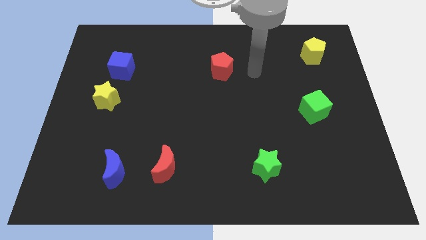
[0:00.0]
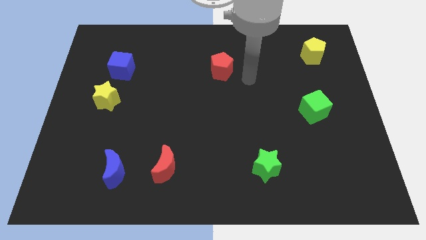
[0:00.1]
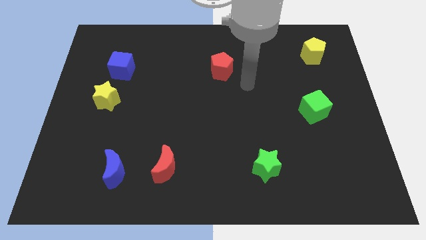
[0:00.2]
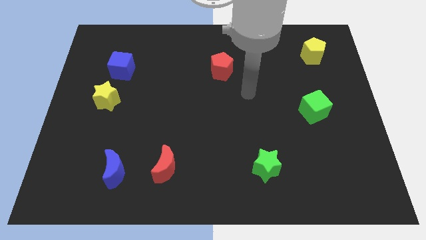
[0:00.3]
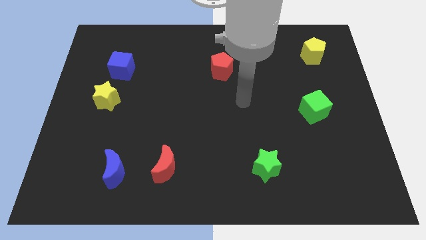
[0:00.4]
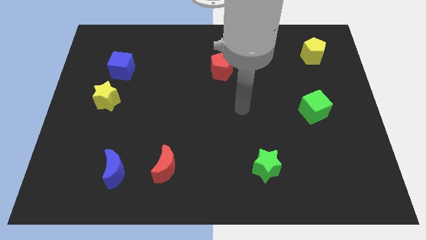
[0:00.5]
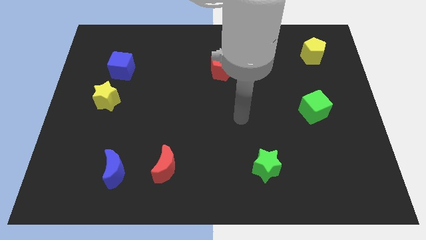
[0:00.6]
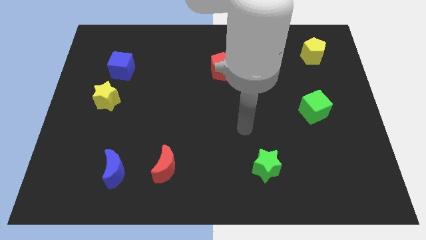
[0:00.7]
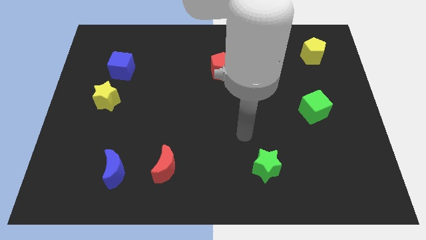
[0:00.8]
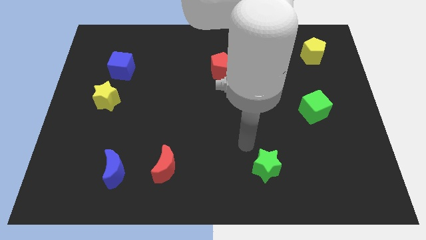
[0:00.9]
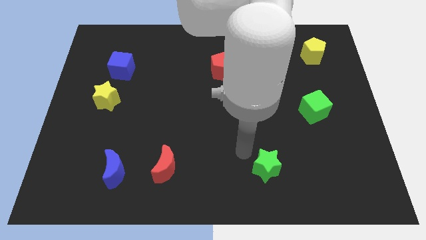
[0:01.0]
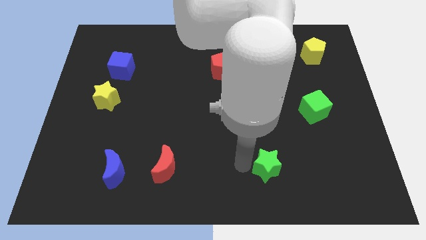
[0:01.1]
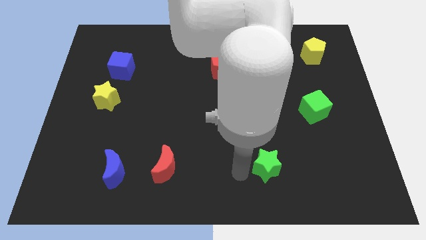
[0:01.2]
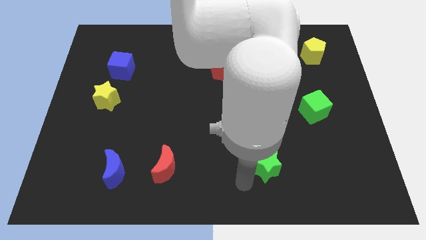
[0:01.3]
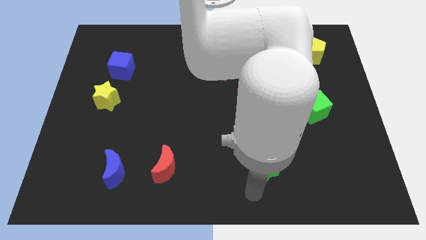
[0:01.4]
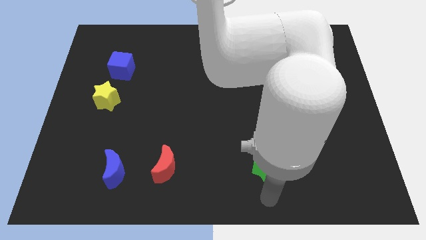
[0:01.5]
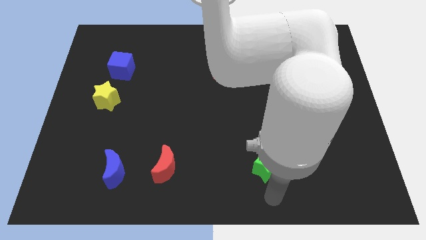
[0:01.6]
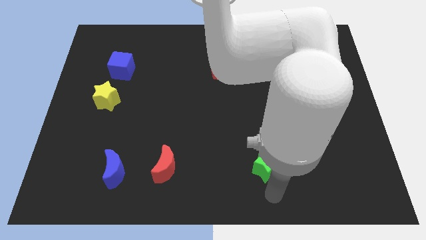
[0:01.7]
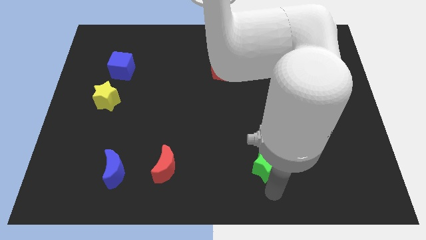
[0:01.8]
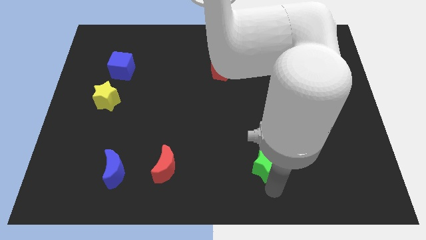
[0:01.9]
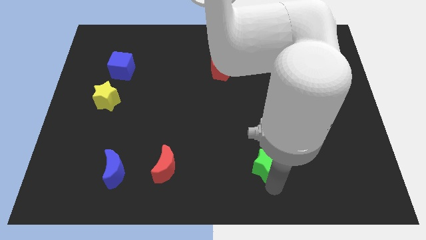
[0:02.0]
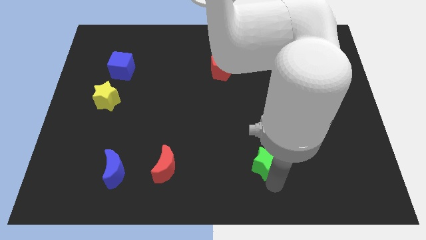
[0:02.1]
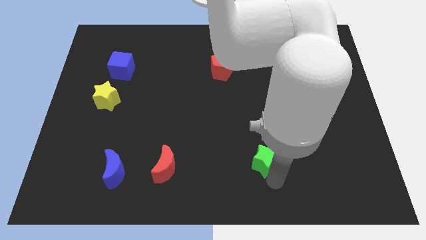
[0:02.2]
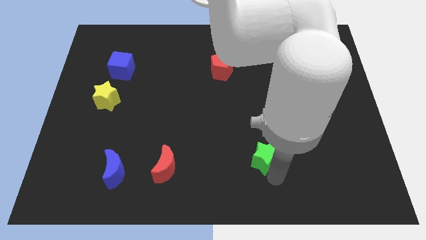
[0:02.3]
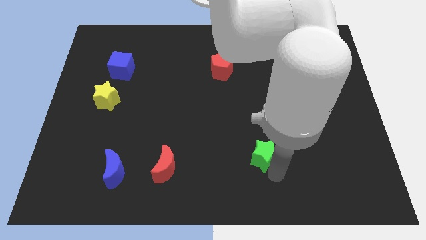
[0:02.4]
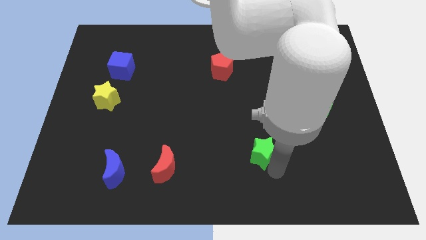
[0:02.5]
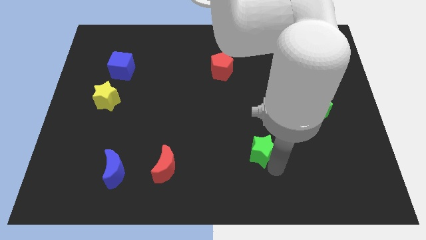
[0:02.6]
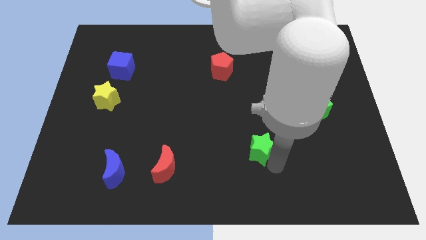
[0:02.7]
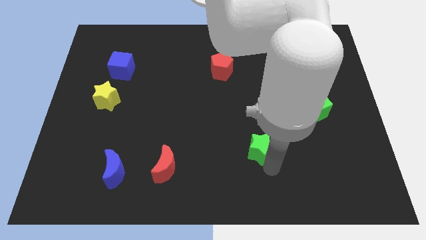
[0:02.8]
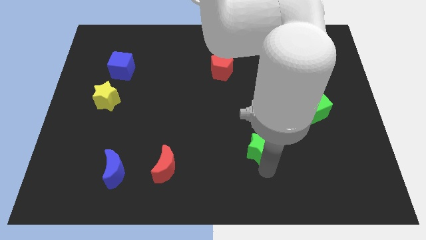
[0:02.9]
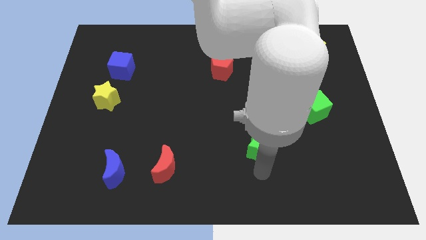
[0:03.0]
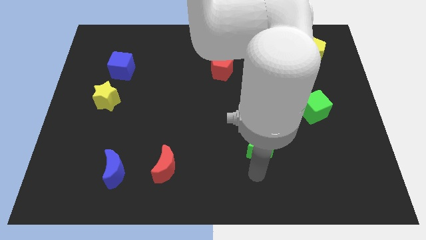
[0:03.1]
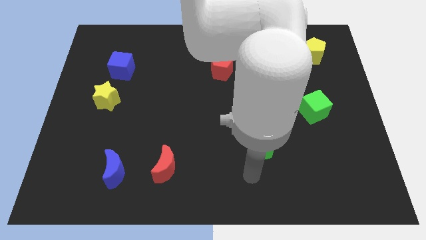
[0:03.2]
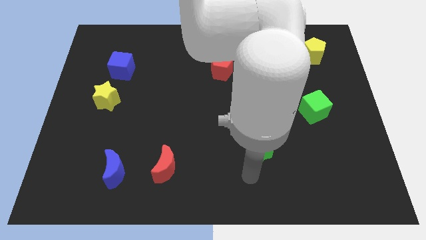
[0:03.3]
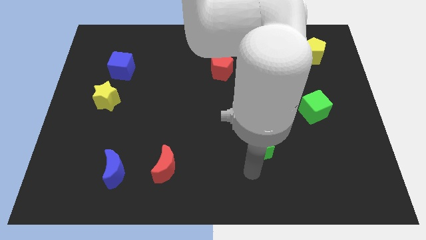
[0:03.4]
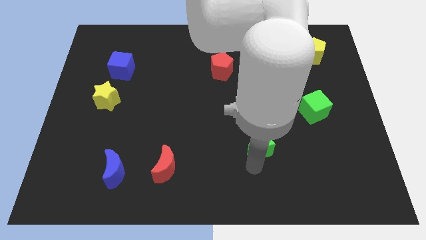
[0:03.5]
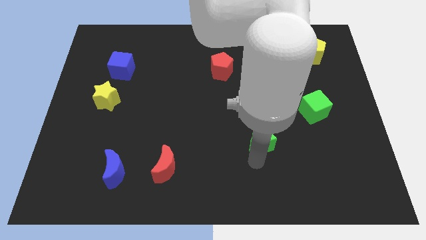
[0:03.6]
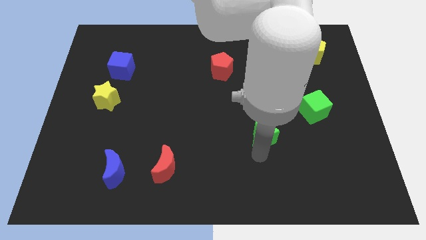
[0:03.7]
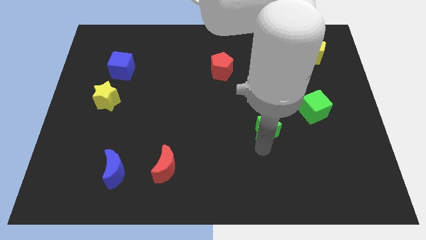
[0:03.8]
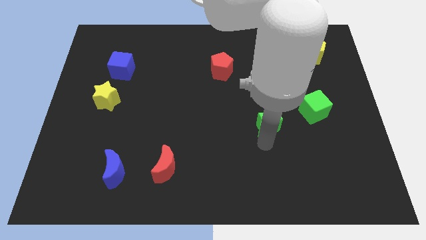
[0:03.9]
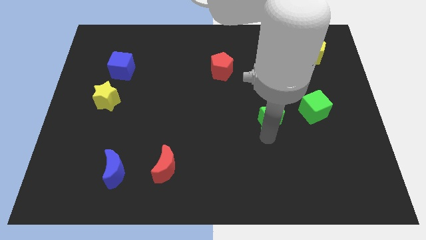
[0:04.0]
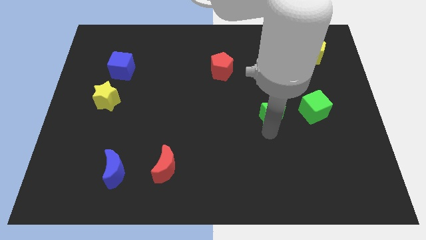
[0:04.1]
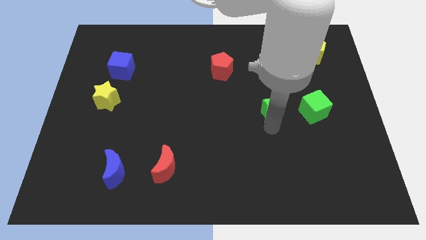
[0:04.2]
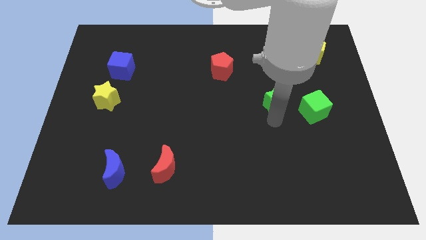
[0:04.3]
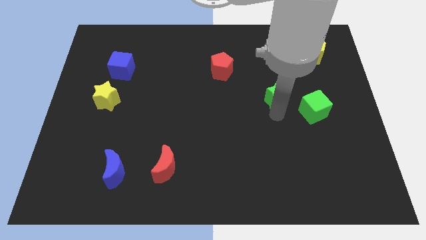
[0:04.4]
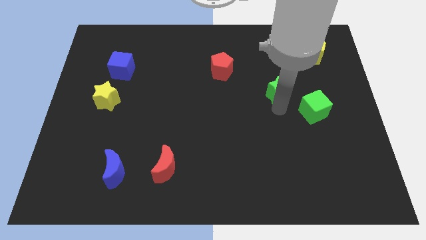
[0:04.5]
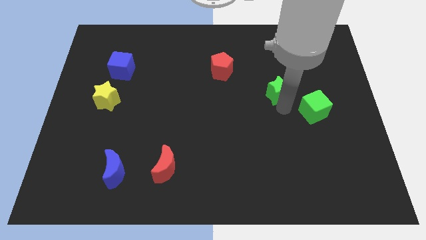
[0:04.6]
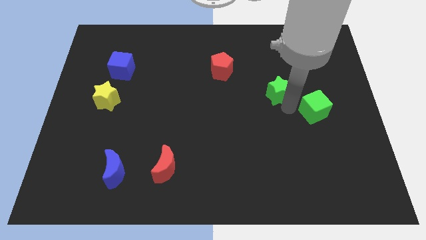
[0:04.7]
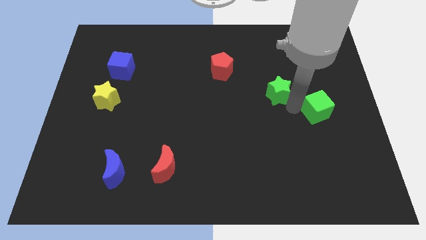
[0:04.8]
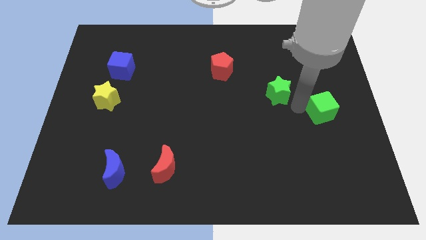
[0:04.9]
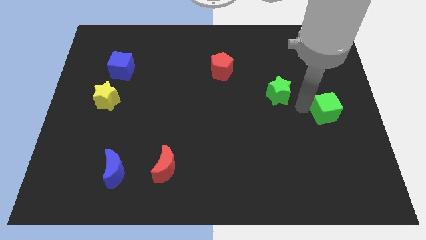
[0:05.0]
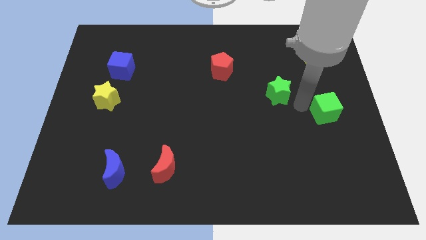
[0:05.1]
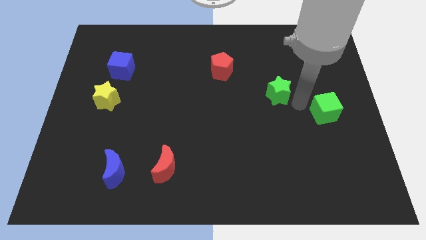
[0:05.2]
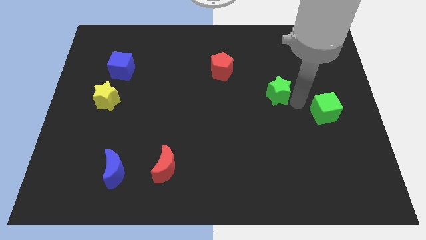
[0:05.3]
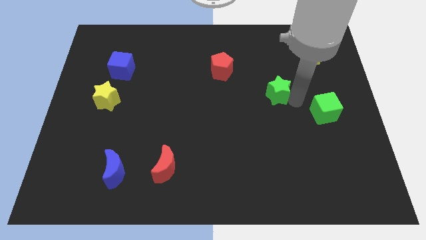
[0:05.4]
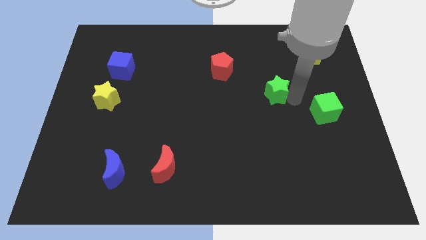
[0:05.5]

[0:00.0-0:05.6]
push the green star up

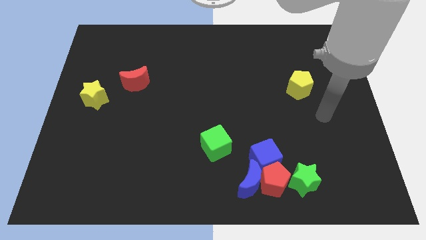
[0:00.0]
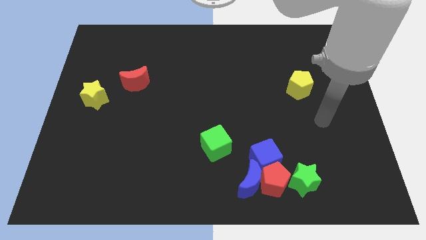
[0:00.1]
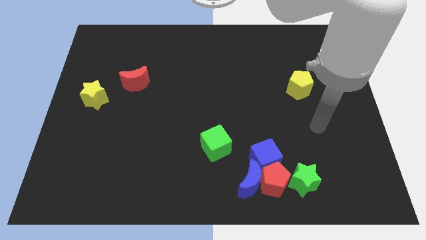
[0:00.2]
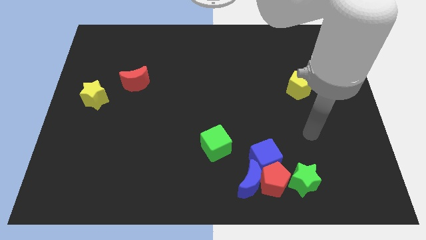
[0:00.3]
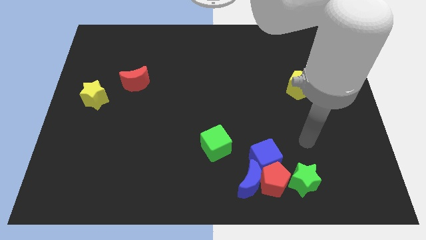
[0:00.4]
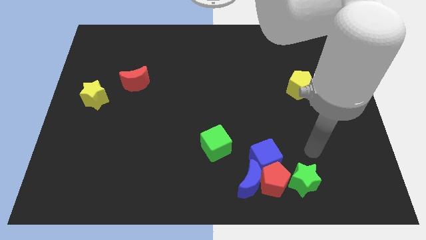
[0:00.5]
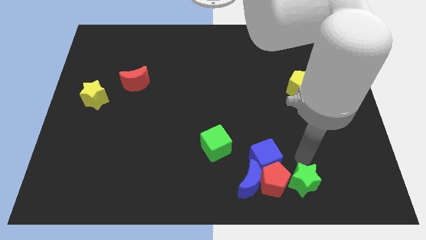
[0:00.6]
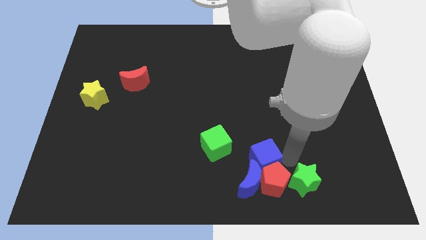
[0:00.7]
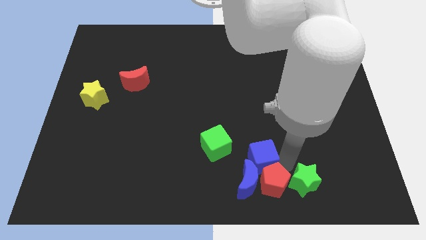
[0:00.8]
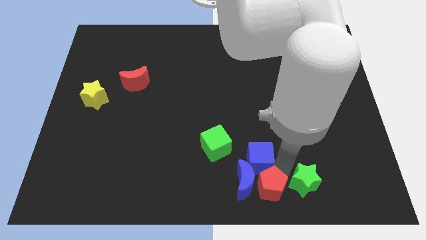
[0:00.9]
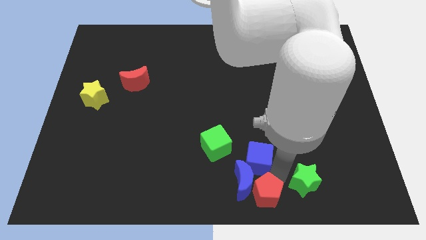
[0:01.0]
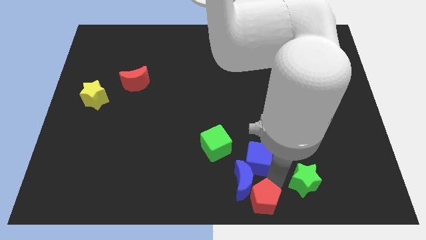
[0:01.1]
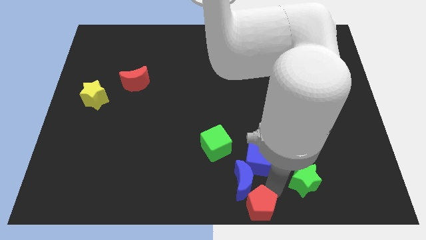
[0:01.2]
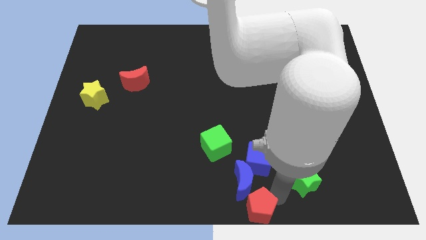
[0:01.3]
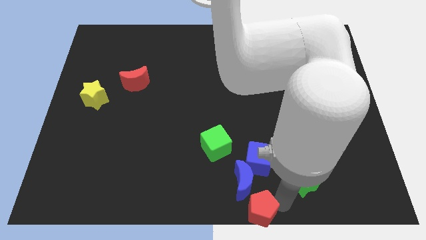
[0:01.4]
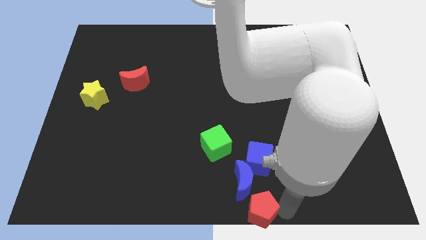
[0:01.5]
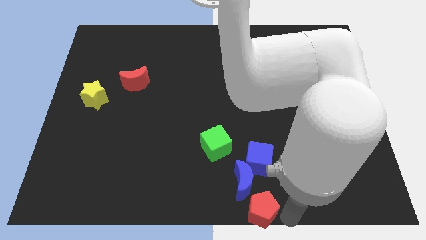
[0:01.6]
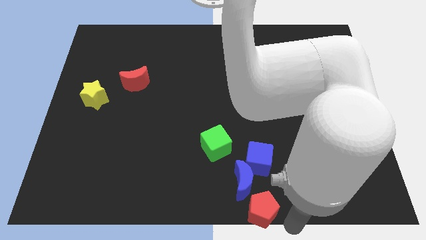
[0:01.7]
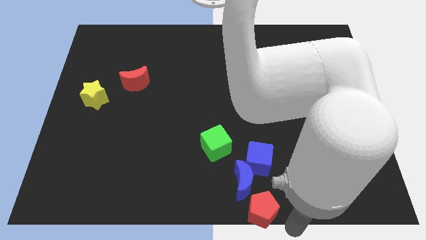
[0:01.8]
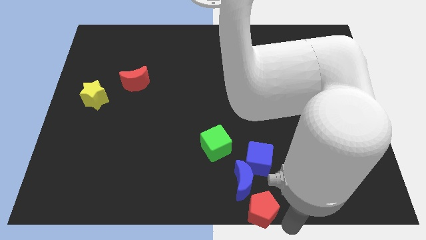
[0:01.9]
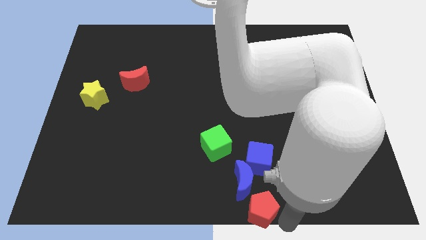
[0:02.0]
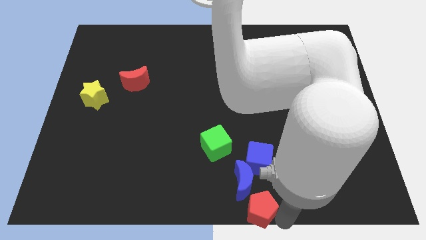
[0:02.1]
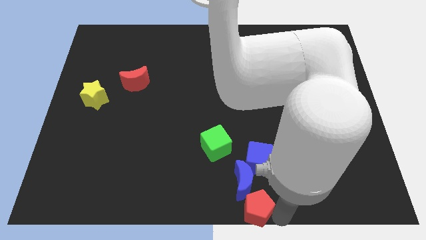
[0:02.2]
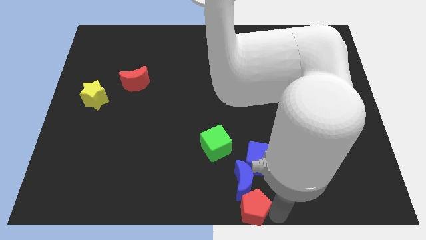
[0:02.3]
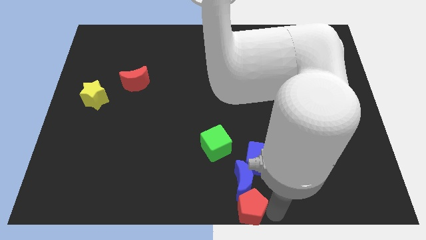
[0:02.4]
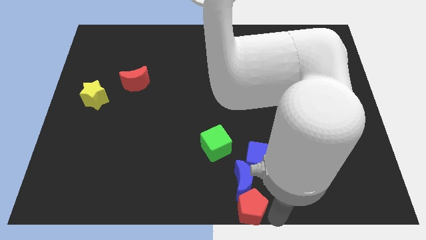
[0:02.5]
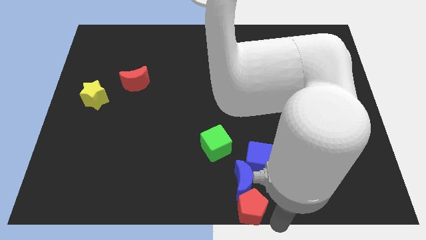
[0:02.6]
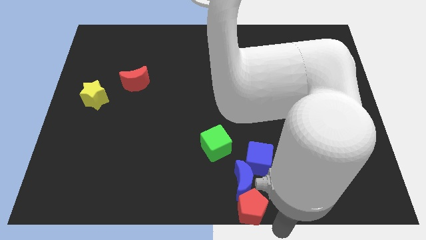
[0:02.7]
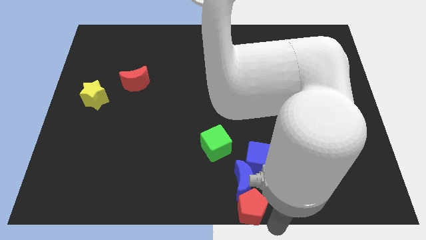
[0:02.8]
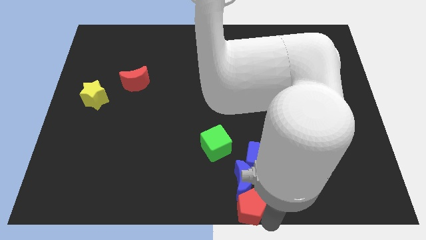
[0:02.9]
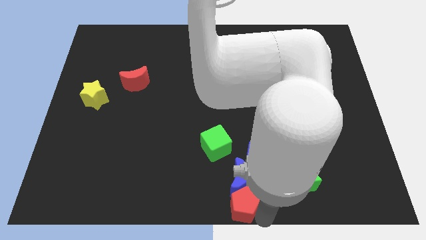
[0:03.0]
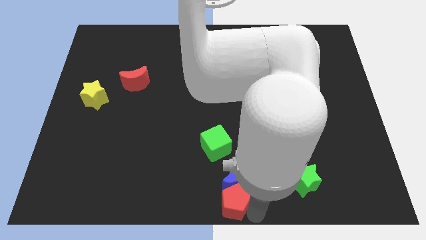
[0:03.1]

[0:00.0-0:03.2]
push the red pentagon slightly left
